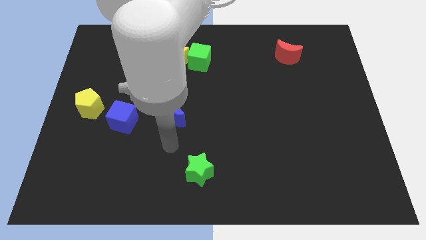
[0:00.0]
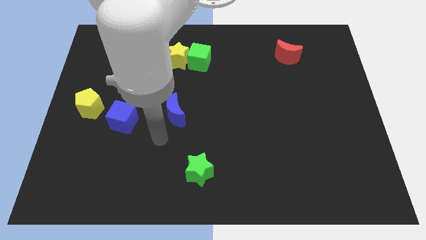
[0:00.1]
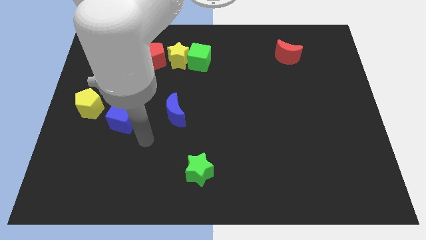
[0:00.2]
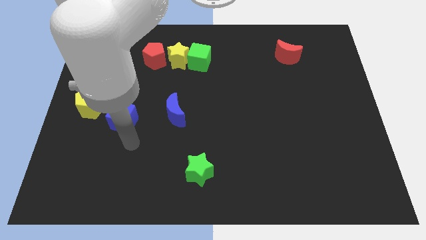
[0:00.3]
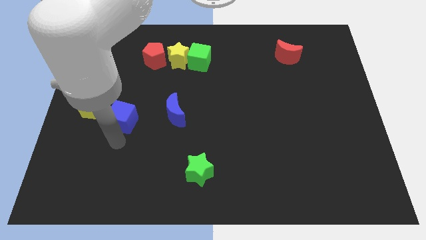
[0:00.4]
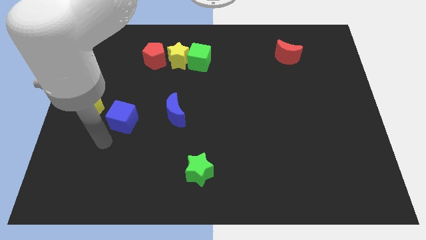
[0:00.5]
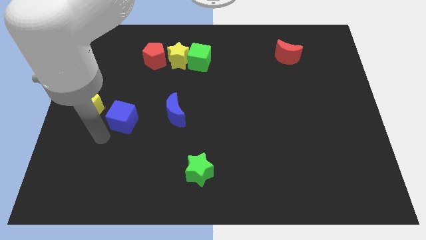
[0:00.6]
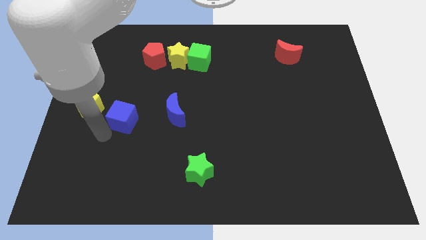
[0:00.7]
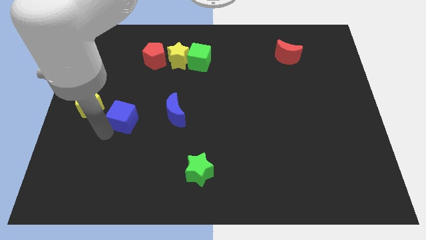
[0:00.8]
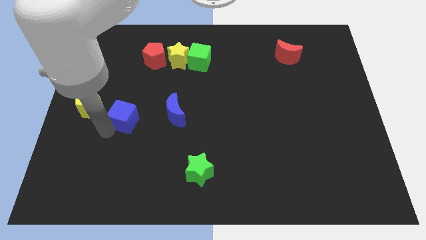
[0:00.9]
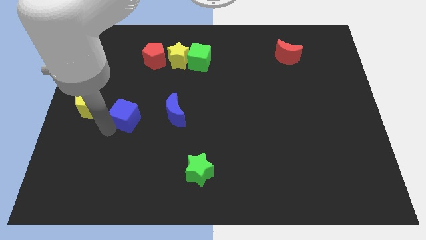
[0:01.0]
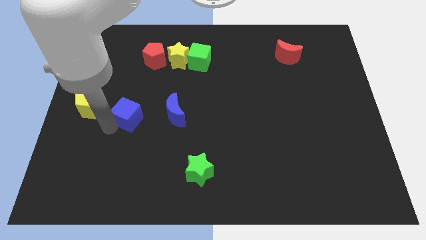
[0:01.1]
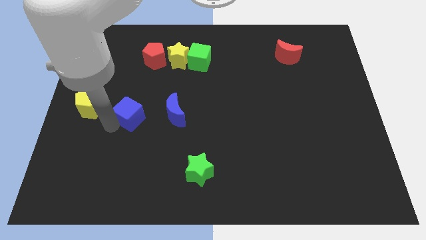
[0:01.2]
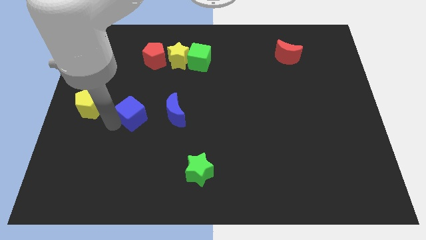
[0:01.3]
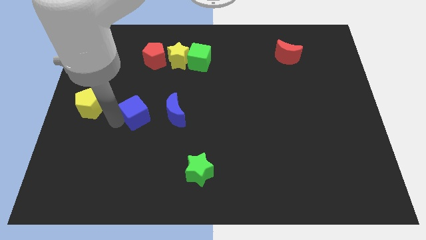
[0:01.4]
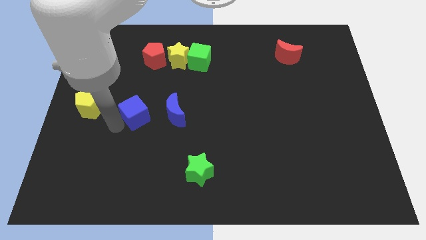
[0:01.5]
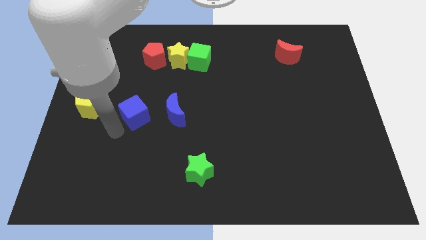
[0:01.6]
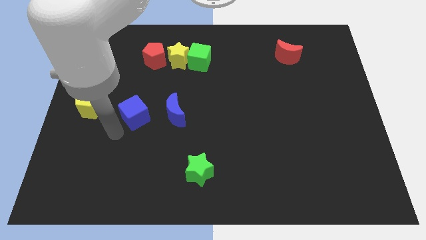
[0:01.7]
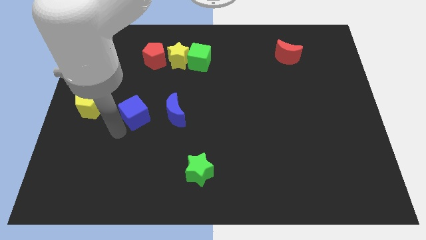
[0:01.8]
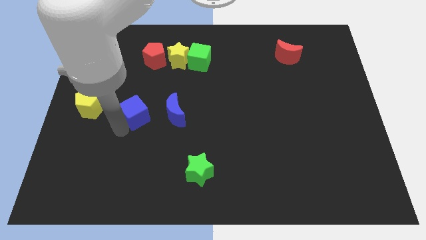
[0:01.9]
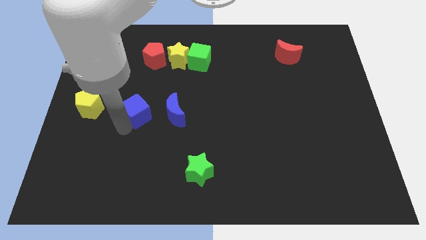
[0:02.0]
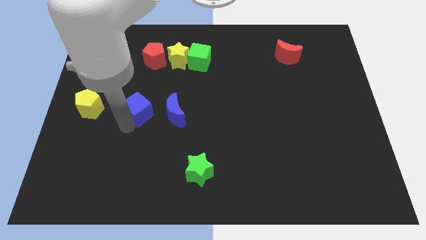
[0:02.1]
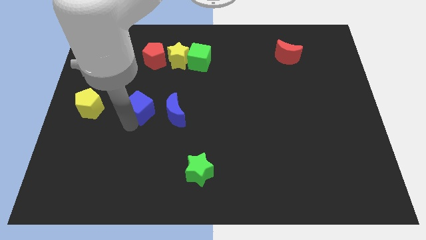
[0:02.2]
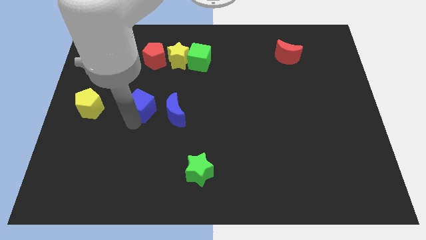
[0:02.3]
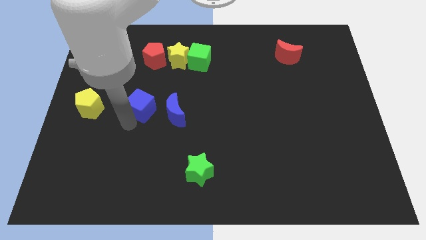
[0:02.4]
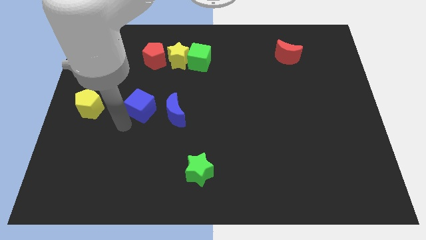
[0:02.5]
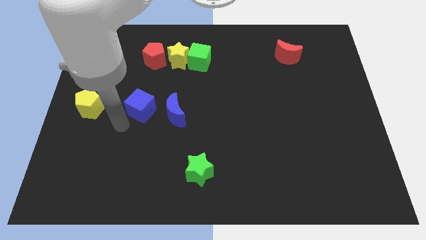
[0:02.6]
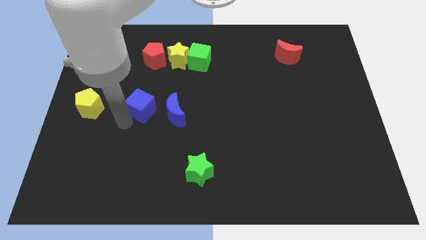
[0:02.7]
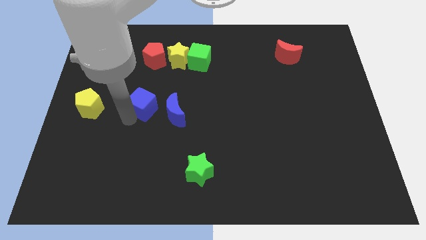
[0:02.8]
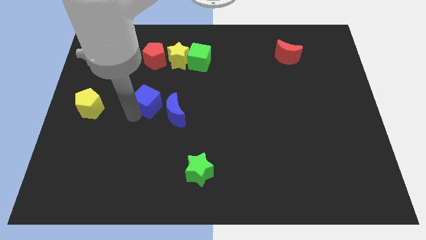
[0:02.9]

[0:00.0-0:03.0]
slide the blue cube up and right a bit

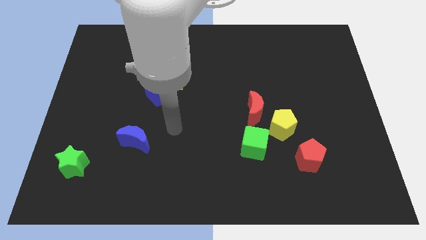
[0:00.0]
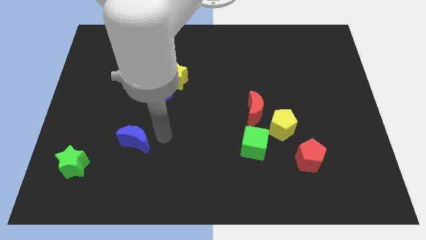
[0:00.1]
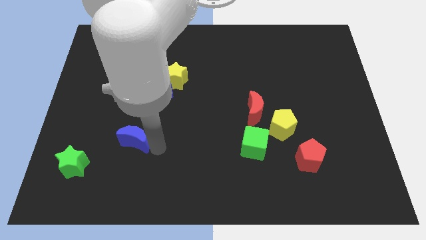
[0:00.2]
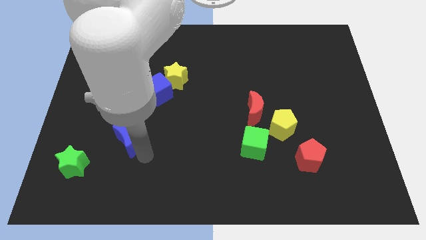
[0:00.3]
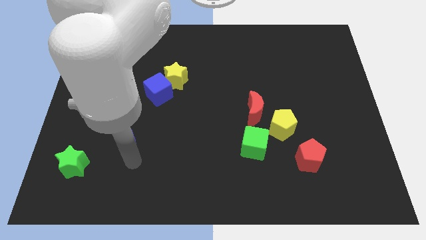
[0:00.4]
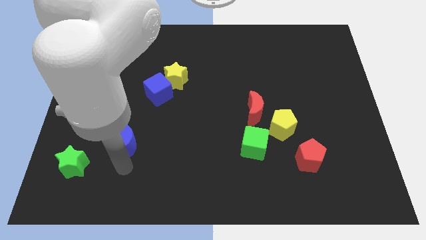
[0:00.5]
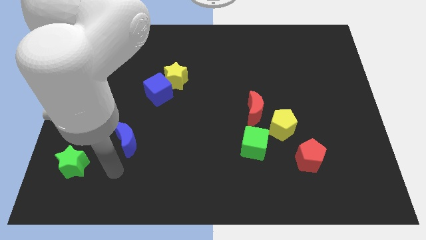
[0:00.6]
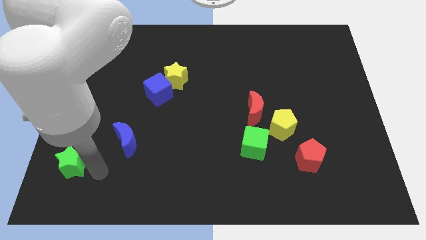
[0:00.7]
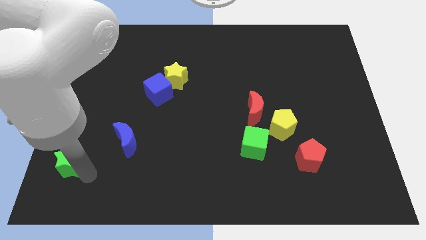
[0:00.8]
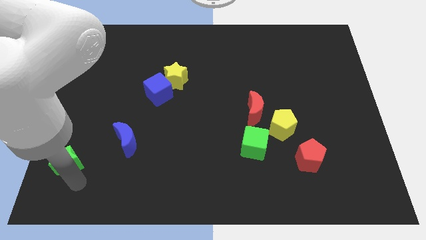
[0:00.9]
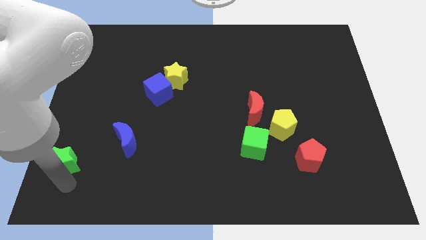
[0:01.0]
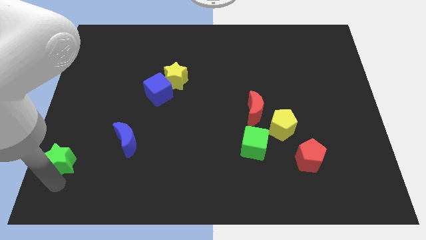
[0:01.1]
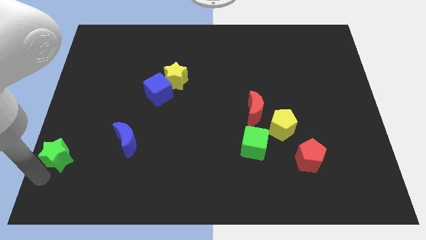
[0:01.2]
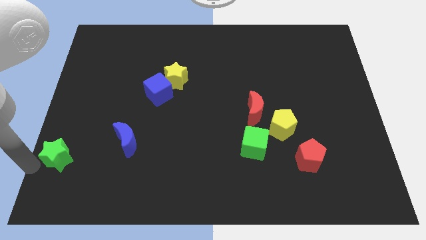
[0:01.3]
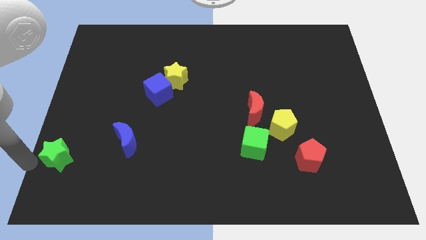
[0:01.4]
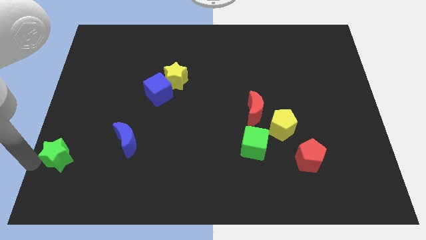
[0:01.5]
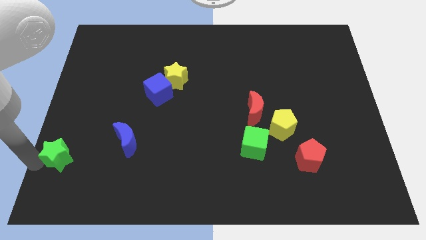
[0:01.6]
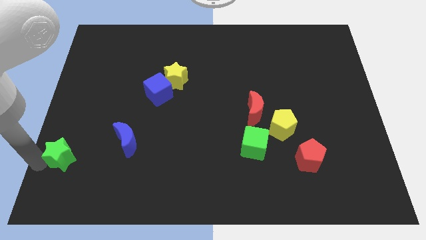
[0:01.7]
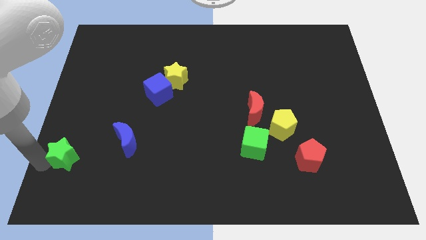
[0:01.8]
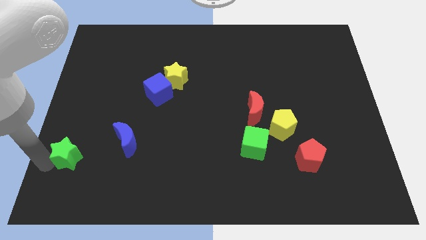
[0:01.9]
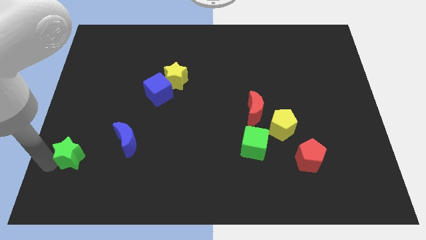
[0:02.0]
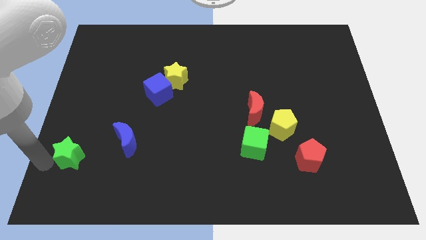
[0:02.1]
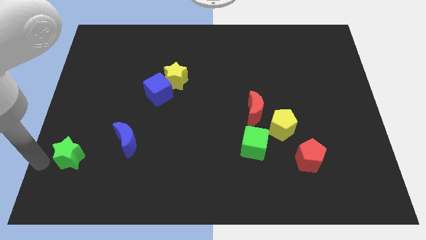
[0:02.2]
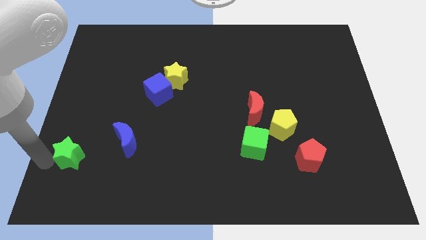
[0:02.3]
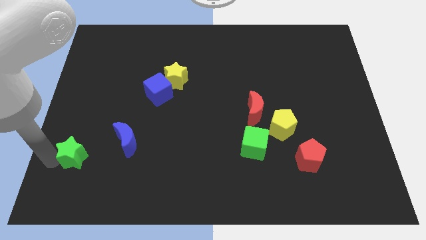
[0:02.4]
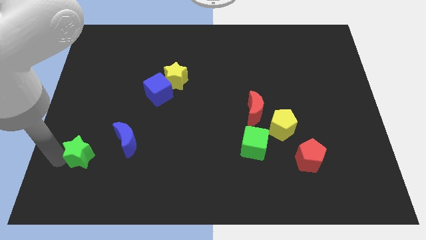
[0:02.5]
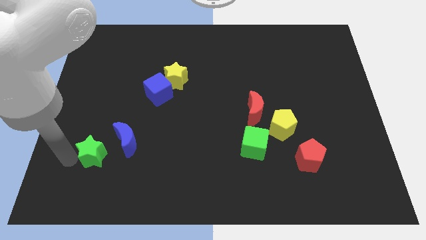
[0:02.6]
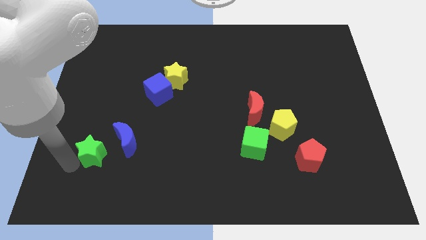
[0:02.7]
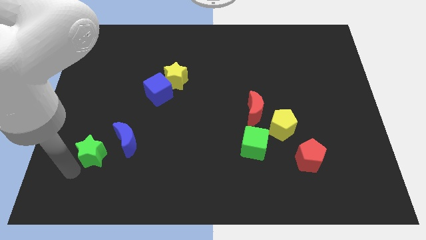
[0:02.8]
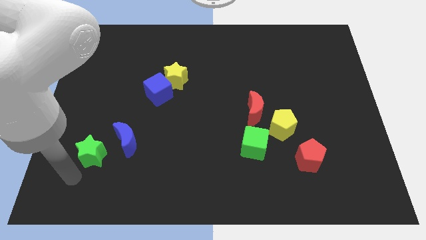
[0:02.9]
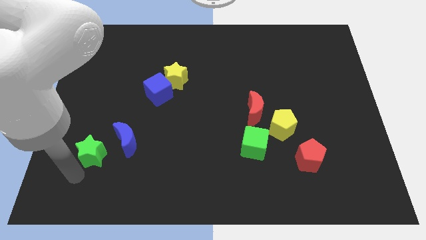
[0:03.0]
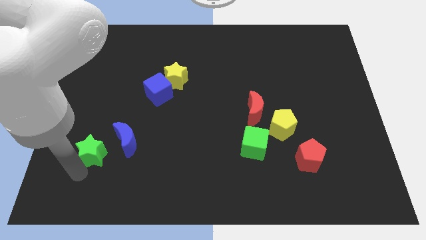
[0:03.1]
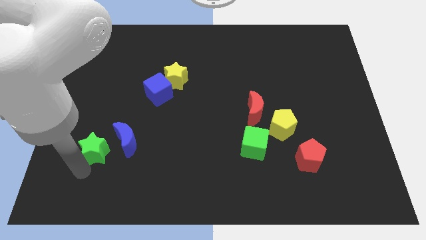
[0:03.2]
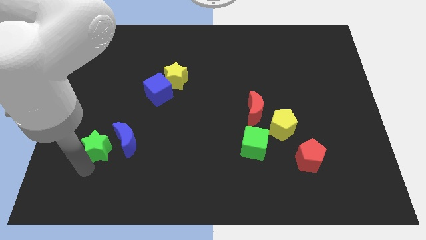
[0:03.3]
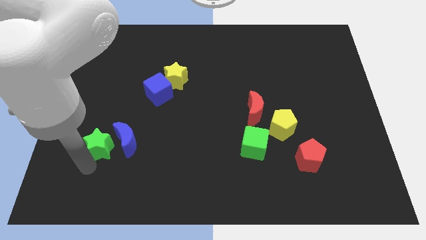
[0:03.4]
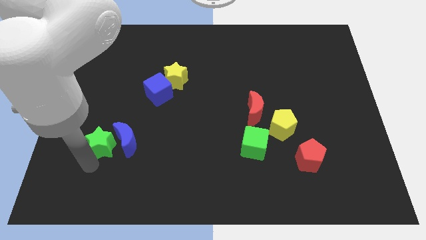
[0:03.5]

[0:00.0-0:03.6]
slightly push the green star up and then right

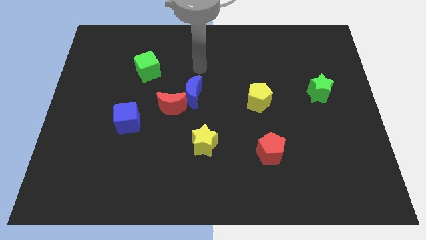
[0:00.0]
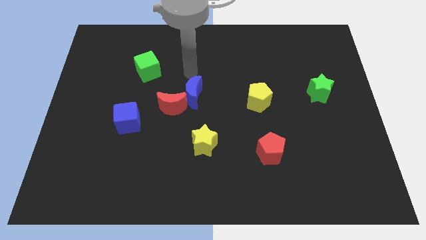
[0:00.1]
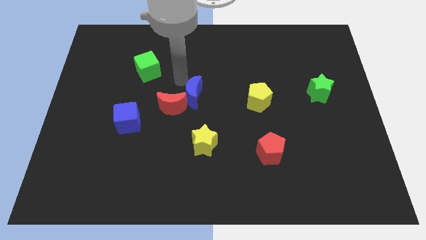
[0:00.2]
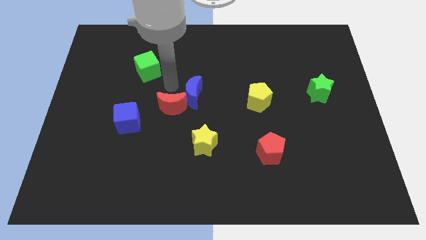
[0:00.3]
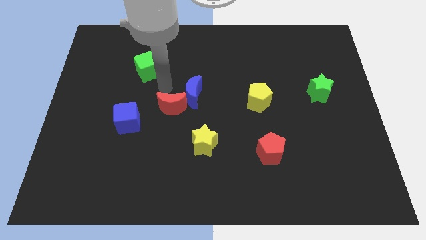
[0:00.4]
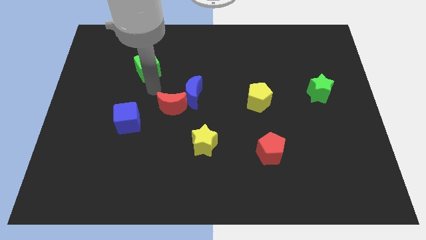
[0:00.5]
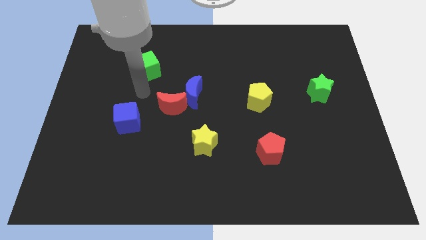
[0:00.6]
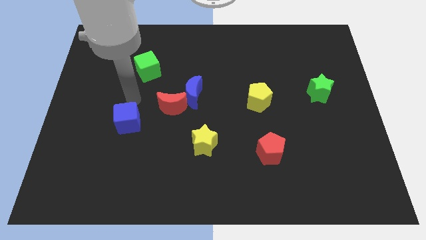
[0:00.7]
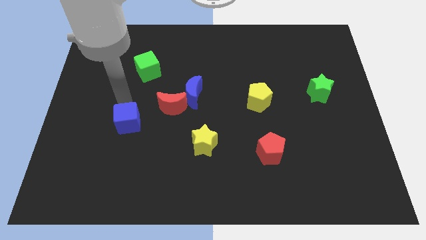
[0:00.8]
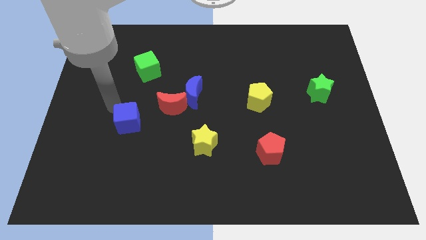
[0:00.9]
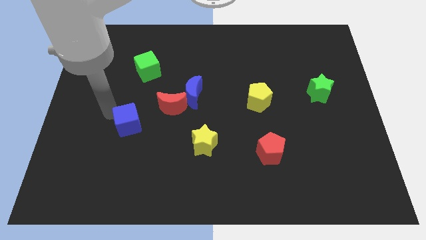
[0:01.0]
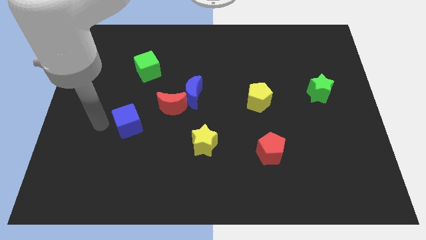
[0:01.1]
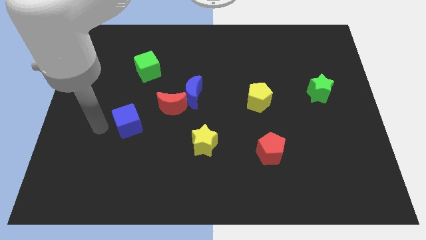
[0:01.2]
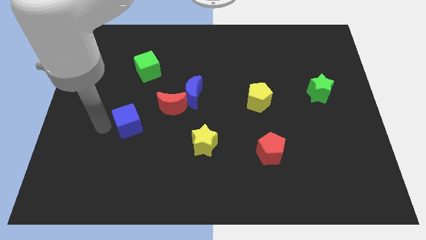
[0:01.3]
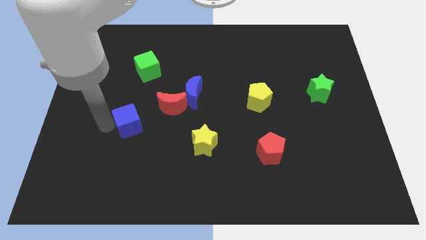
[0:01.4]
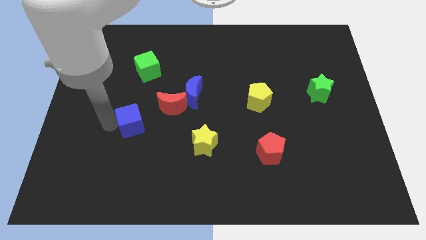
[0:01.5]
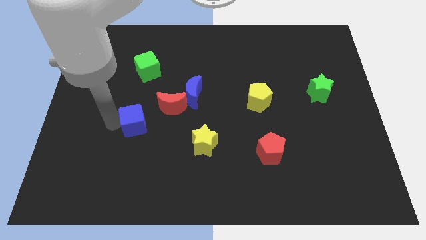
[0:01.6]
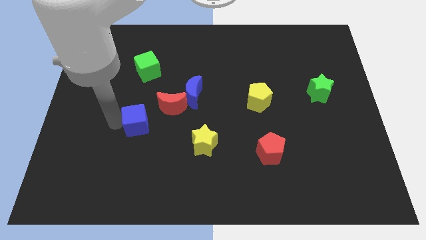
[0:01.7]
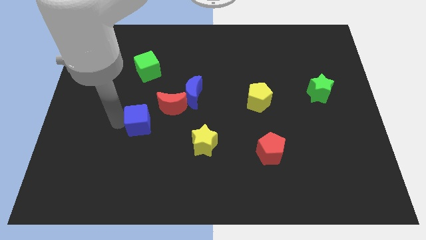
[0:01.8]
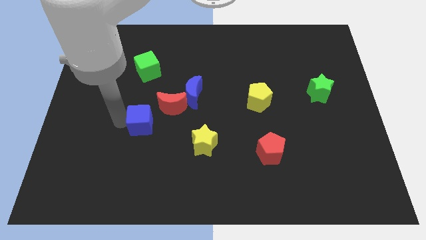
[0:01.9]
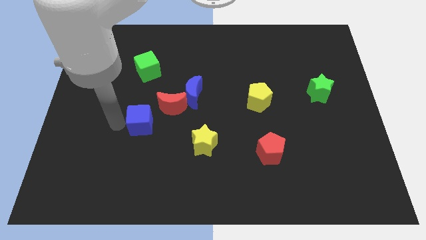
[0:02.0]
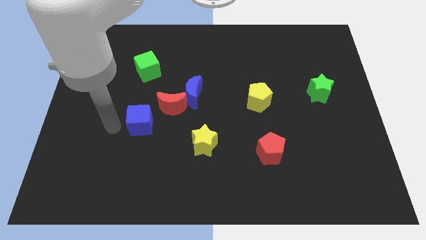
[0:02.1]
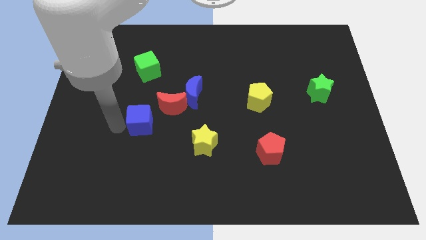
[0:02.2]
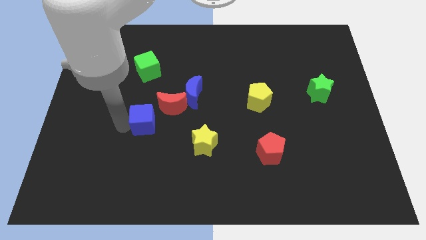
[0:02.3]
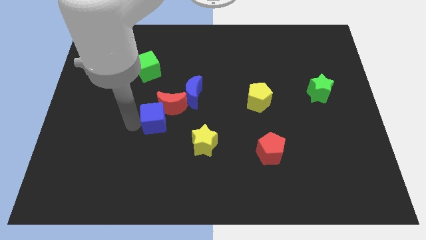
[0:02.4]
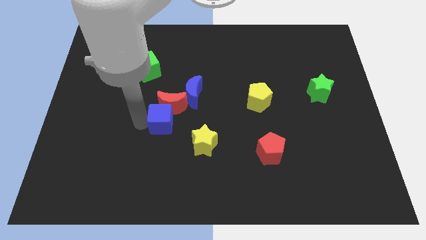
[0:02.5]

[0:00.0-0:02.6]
push the blue cube slightly to the right
